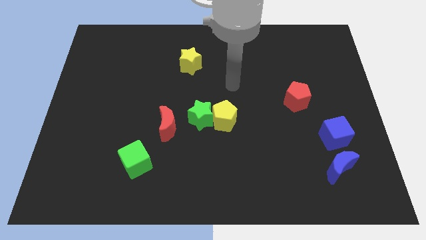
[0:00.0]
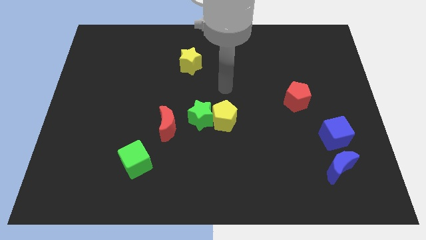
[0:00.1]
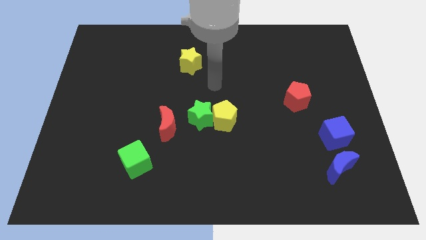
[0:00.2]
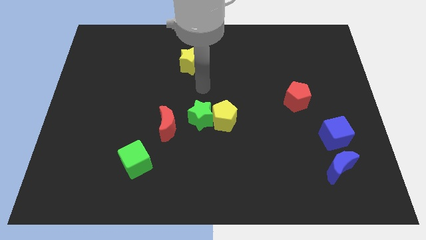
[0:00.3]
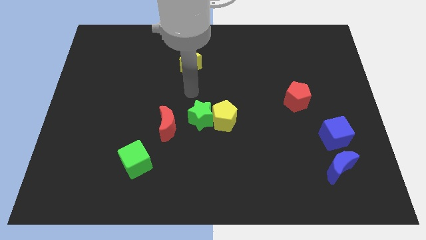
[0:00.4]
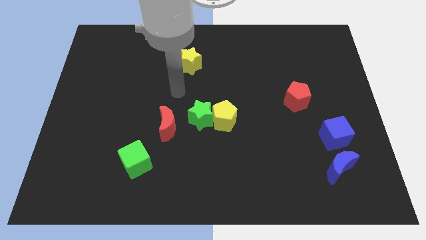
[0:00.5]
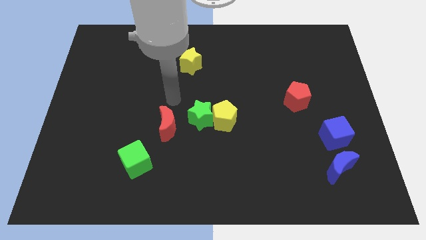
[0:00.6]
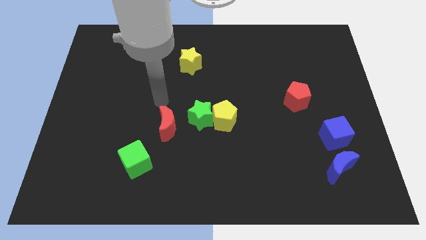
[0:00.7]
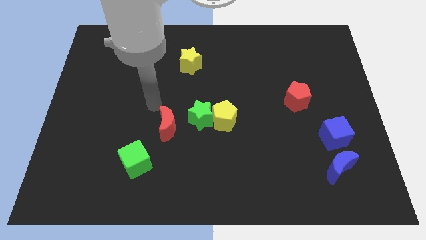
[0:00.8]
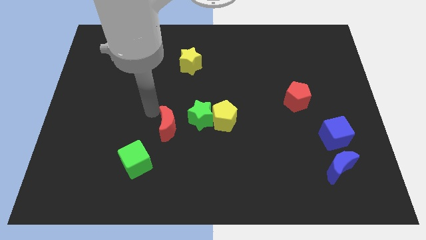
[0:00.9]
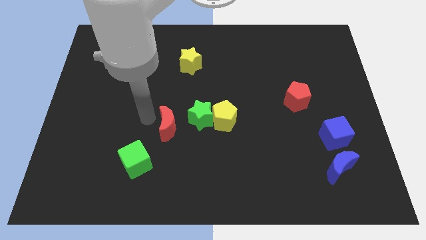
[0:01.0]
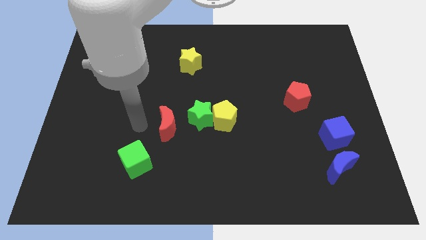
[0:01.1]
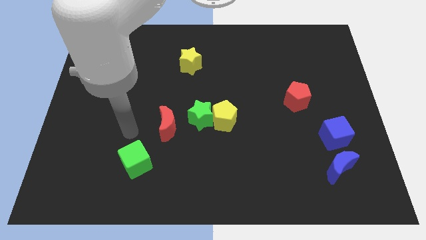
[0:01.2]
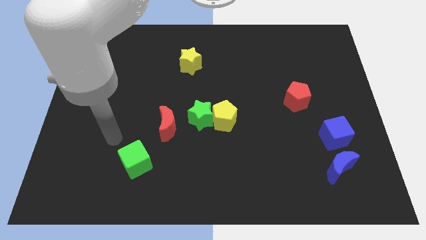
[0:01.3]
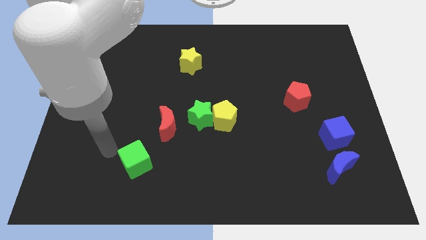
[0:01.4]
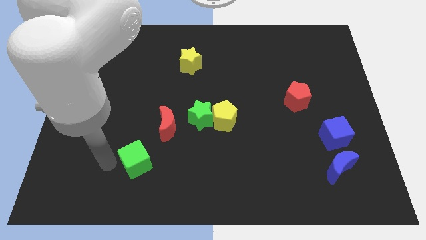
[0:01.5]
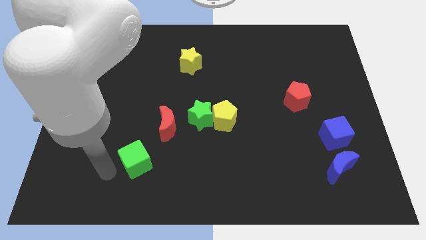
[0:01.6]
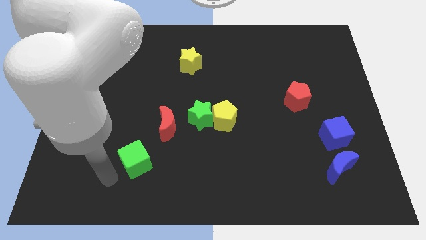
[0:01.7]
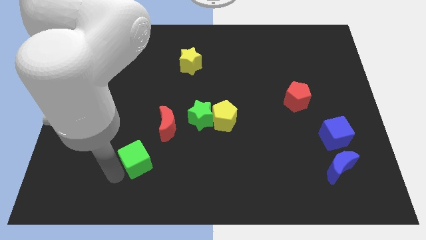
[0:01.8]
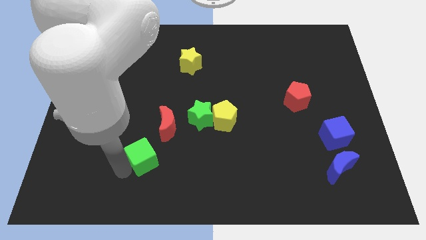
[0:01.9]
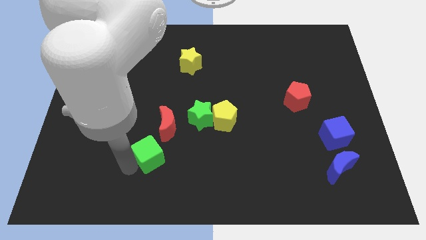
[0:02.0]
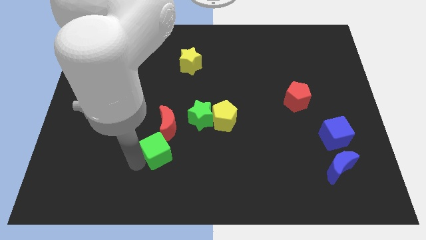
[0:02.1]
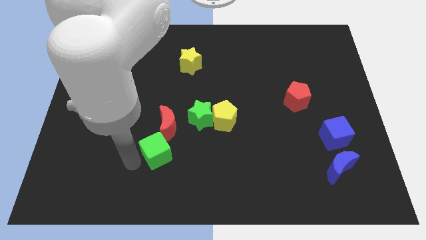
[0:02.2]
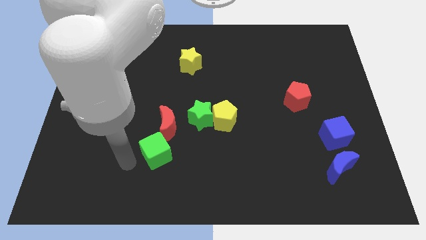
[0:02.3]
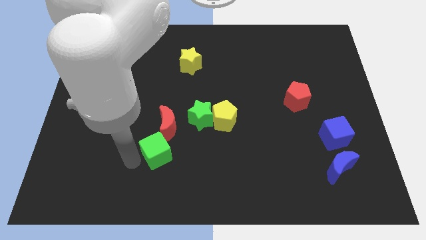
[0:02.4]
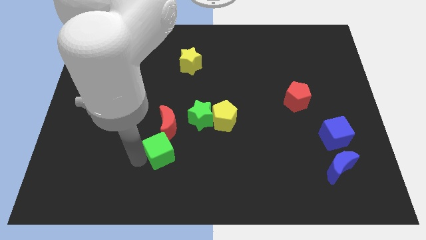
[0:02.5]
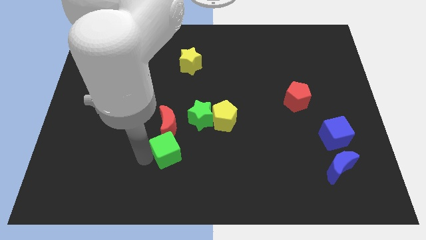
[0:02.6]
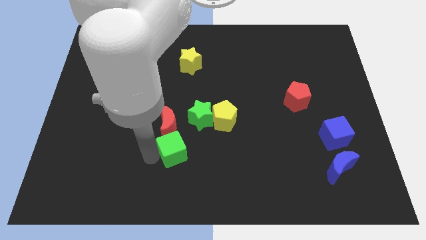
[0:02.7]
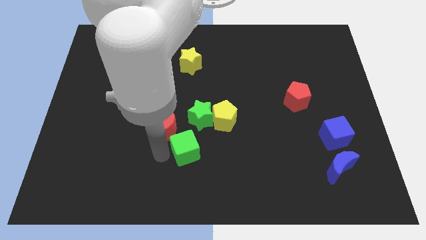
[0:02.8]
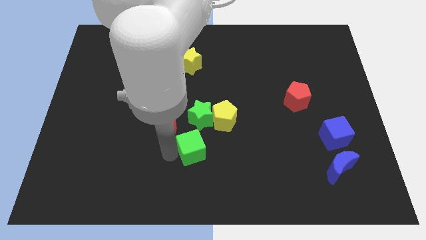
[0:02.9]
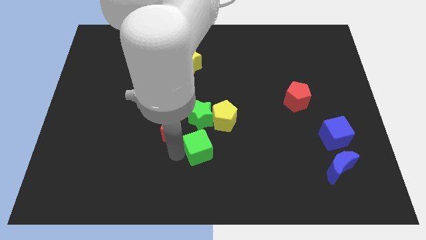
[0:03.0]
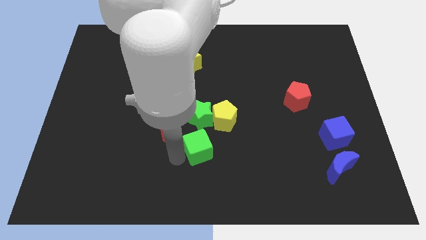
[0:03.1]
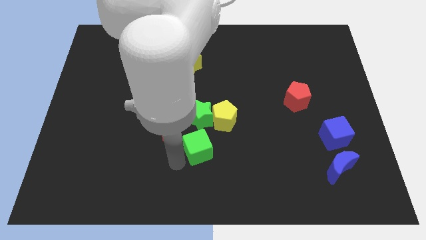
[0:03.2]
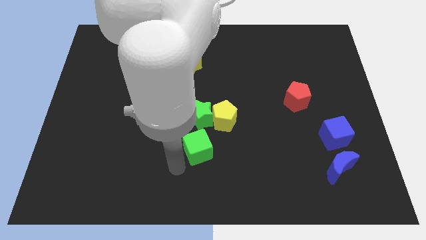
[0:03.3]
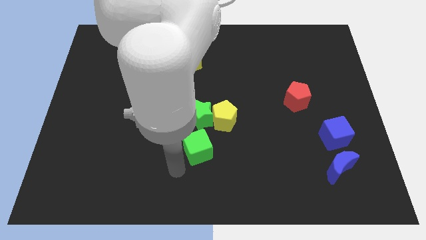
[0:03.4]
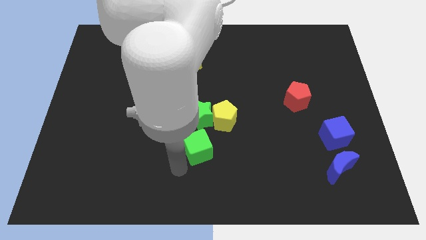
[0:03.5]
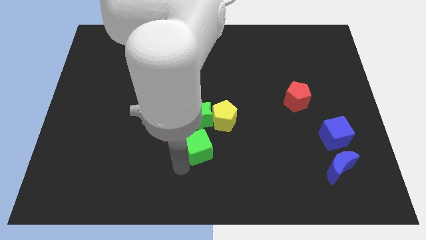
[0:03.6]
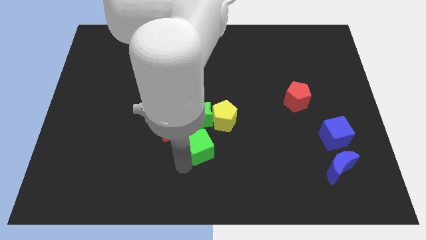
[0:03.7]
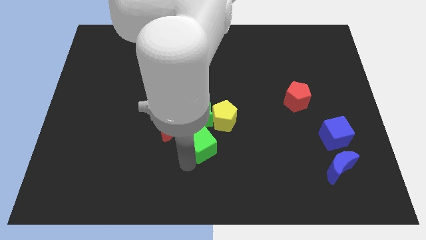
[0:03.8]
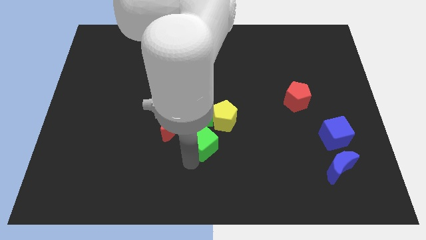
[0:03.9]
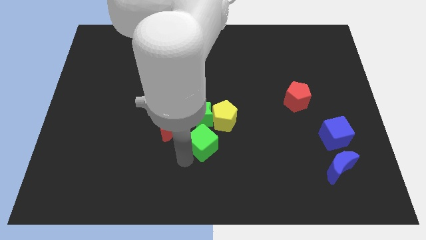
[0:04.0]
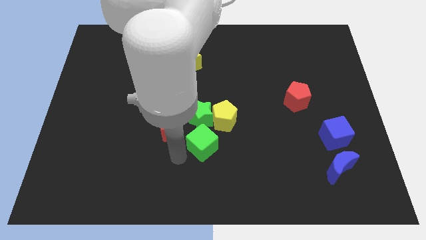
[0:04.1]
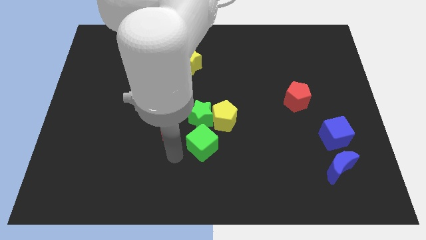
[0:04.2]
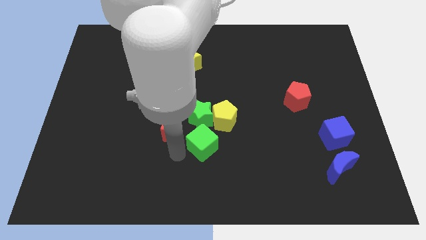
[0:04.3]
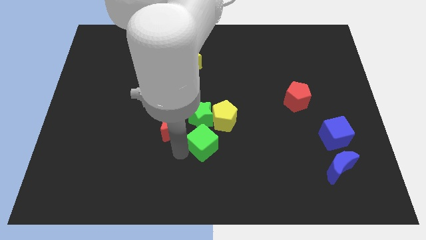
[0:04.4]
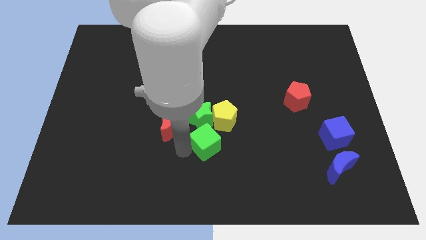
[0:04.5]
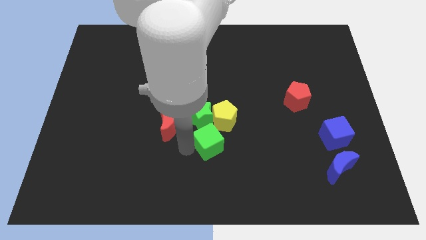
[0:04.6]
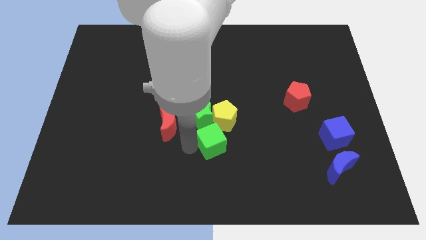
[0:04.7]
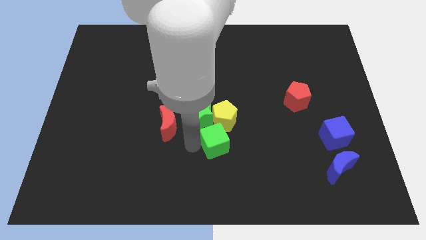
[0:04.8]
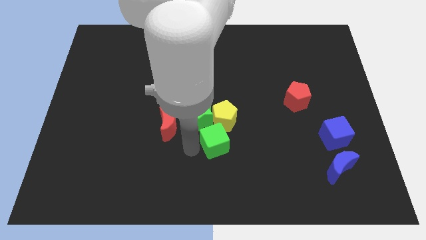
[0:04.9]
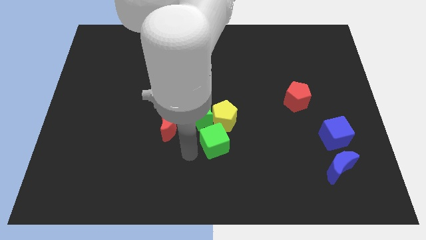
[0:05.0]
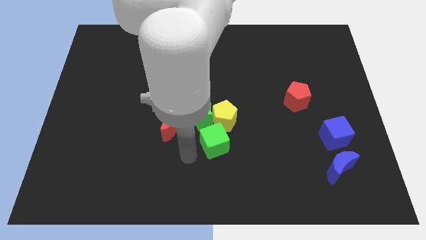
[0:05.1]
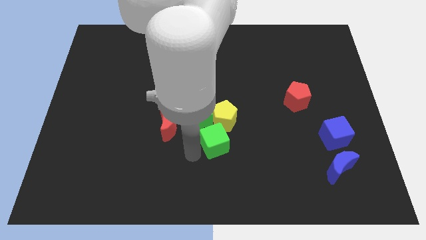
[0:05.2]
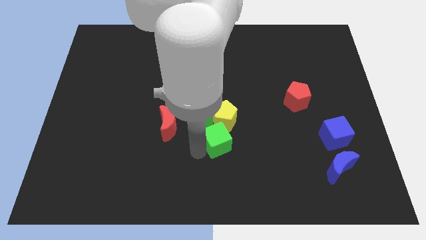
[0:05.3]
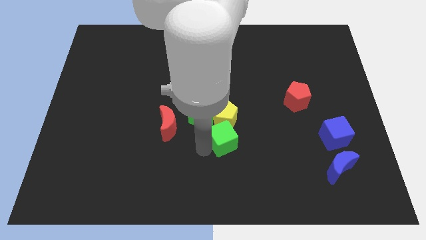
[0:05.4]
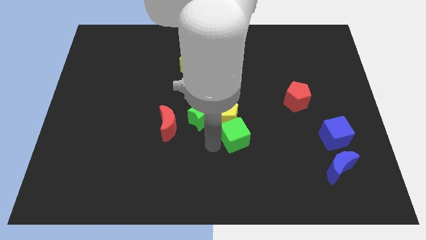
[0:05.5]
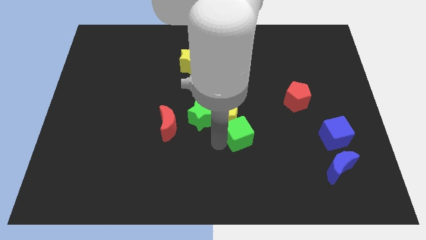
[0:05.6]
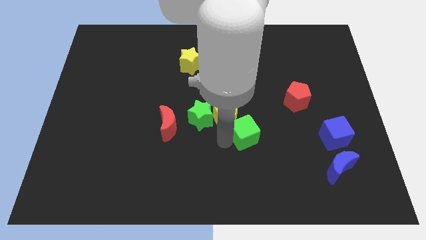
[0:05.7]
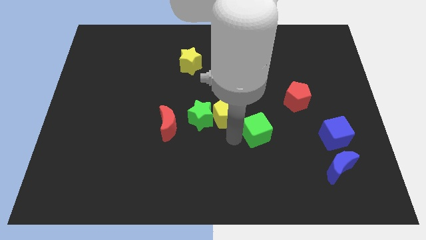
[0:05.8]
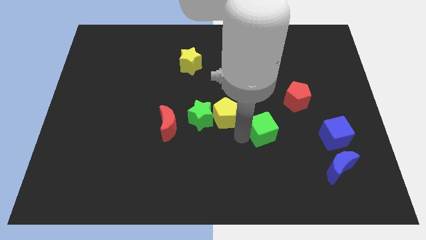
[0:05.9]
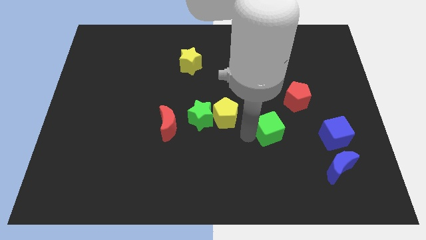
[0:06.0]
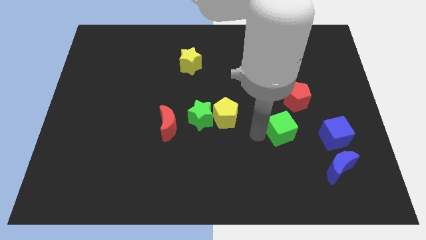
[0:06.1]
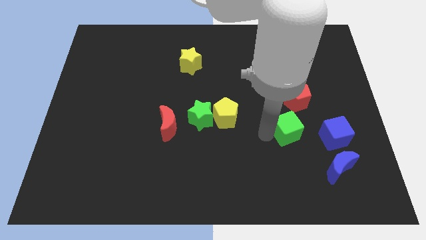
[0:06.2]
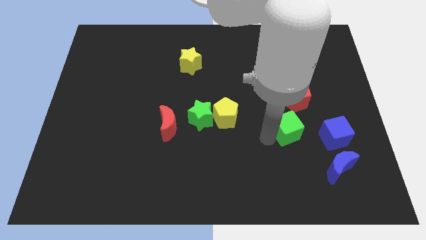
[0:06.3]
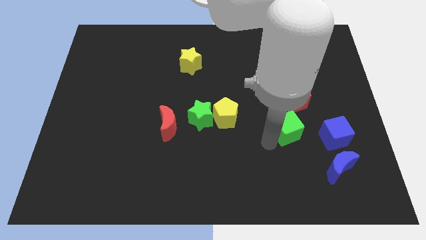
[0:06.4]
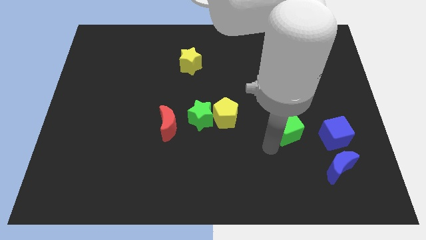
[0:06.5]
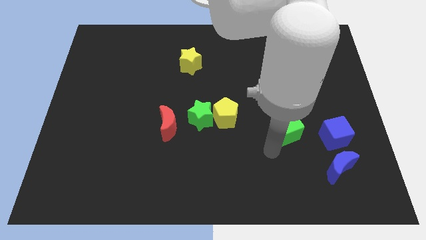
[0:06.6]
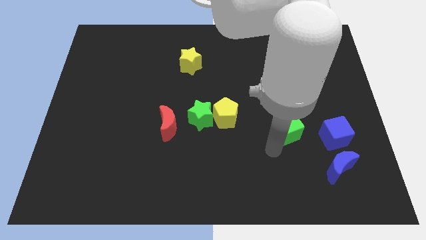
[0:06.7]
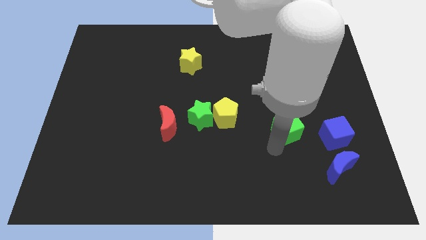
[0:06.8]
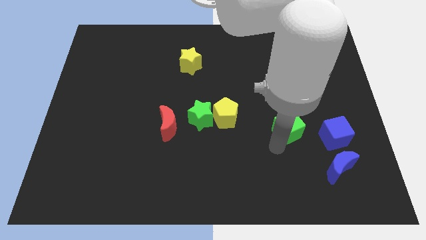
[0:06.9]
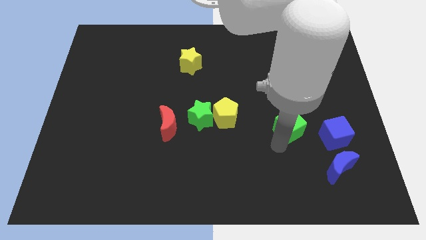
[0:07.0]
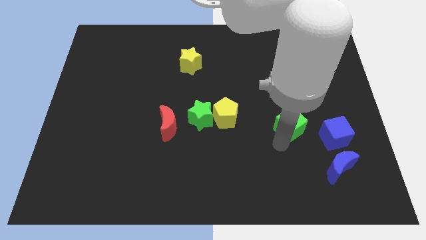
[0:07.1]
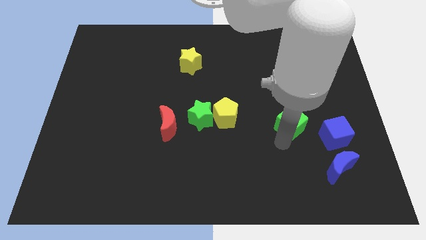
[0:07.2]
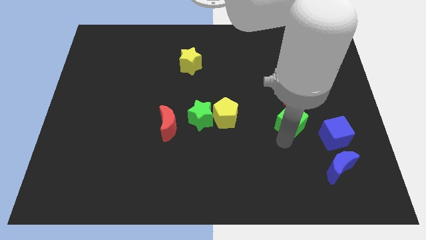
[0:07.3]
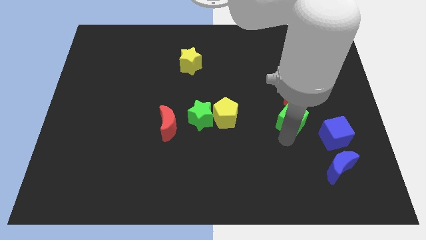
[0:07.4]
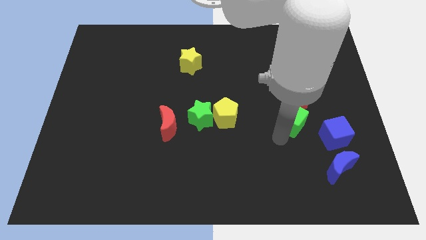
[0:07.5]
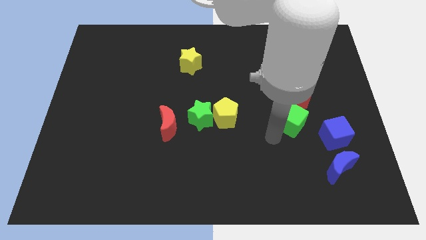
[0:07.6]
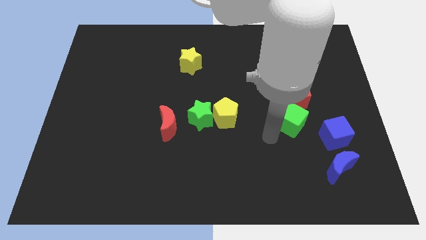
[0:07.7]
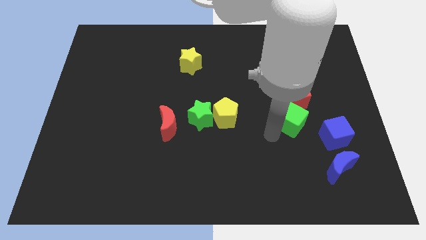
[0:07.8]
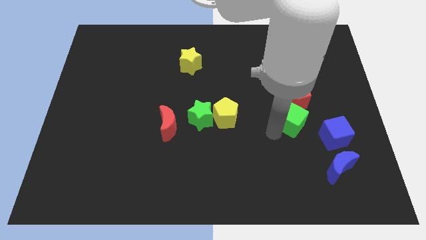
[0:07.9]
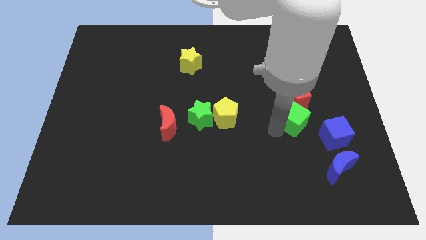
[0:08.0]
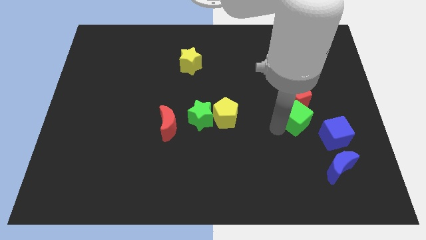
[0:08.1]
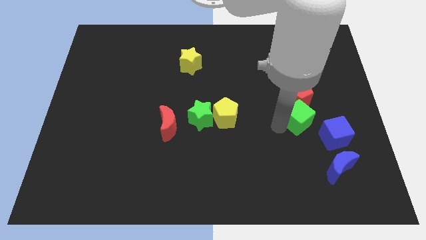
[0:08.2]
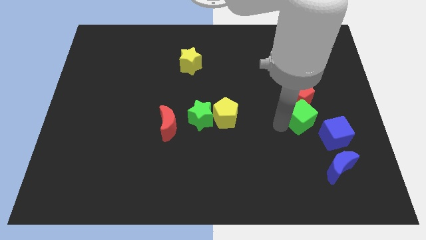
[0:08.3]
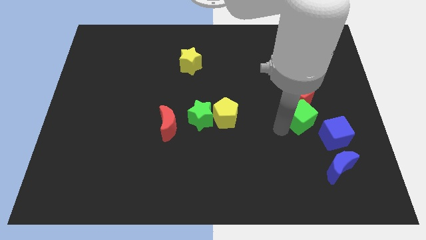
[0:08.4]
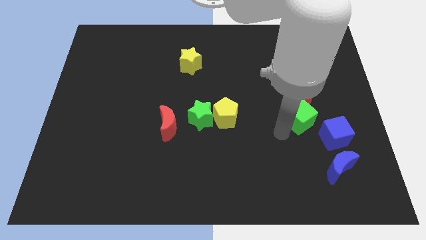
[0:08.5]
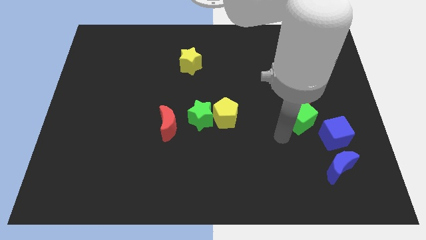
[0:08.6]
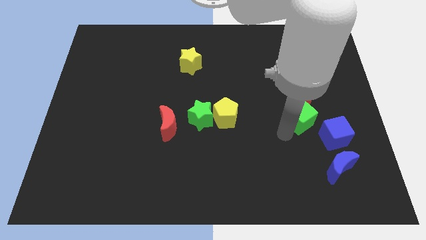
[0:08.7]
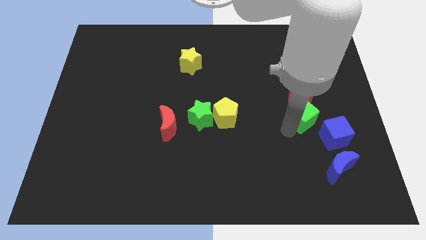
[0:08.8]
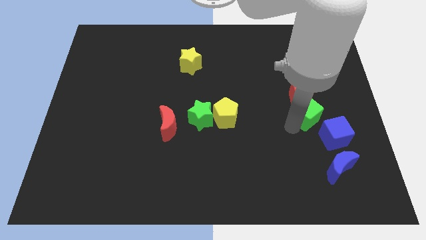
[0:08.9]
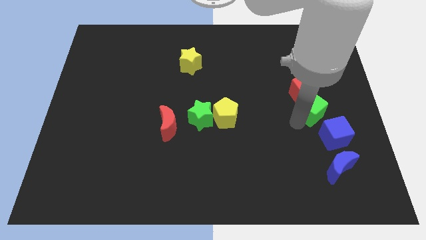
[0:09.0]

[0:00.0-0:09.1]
slide the green cube above the blue cube
